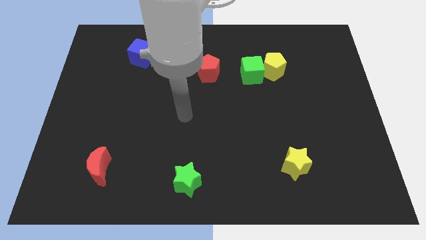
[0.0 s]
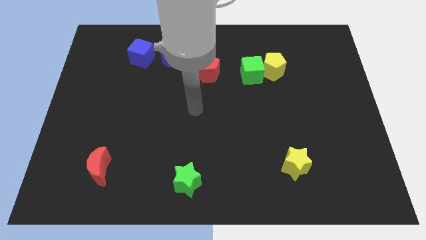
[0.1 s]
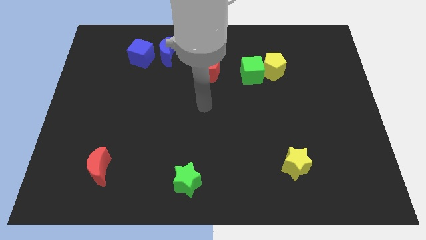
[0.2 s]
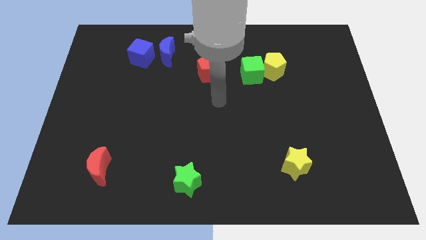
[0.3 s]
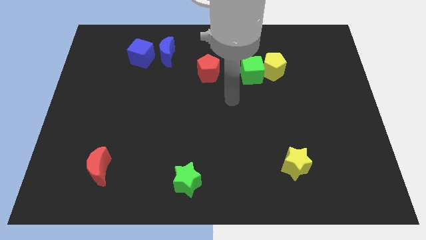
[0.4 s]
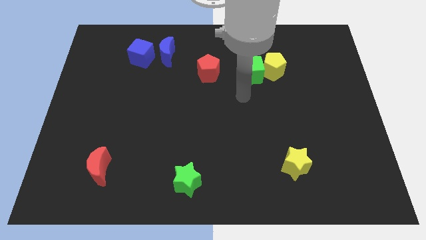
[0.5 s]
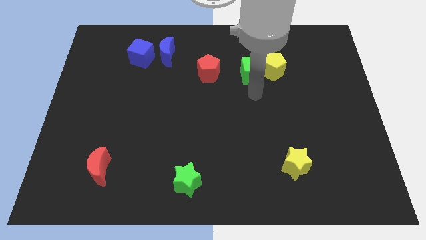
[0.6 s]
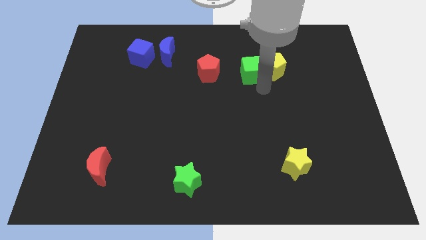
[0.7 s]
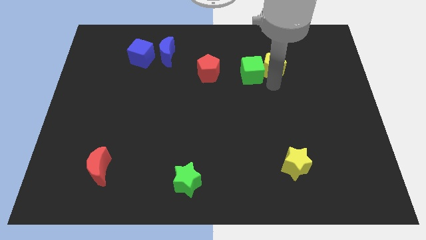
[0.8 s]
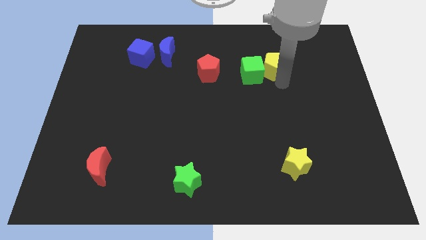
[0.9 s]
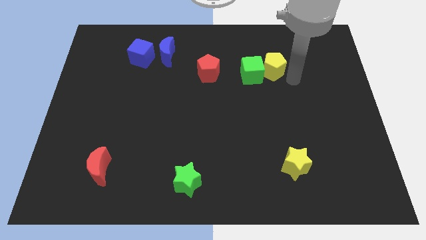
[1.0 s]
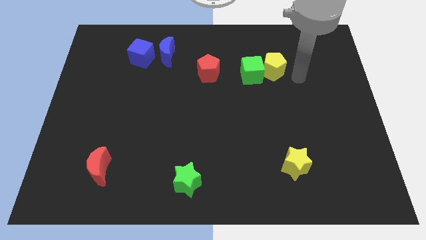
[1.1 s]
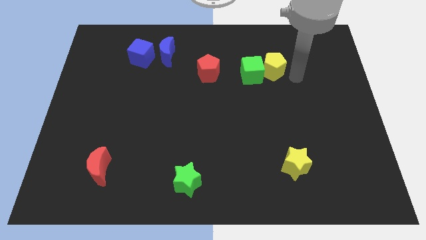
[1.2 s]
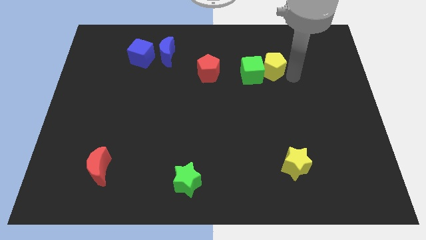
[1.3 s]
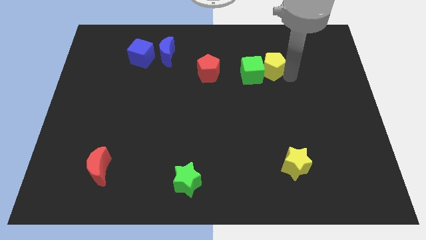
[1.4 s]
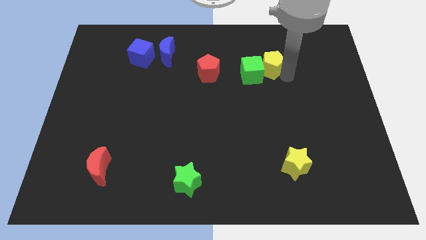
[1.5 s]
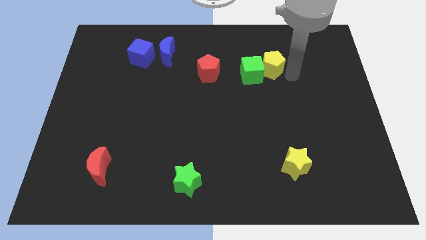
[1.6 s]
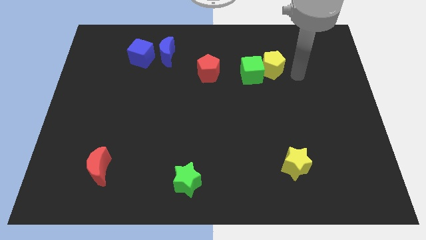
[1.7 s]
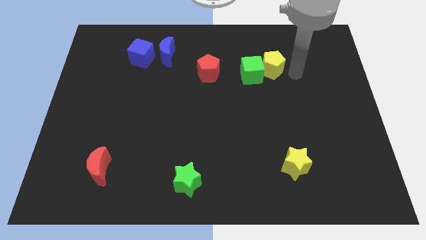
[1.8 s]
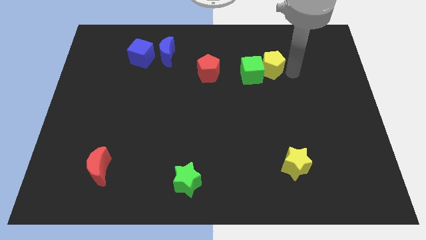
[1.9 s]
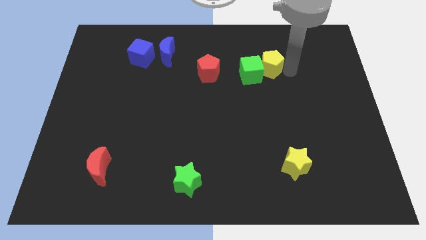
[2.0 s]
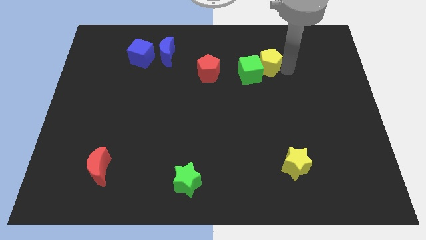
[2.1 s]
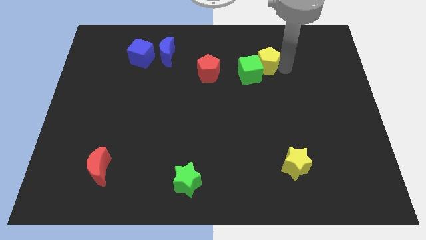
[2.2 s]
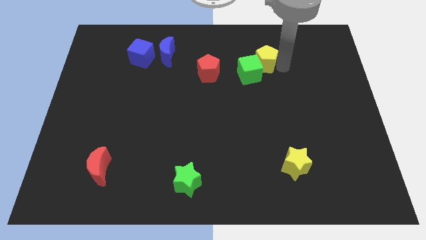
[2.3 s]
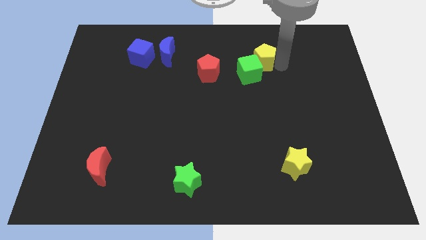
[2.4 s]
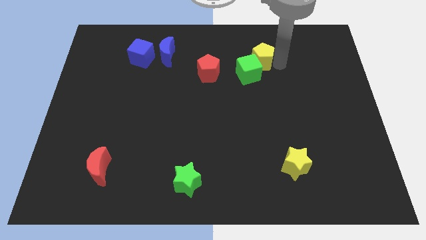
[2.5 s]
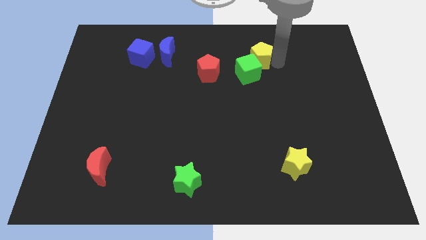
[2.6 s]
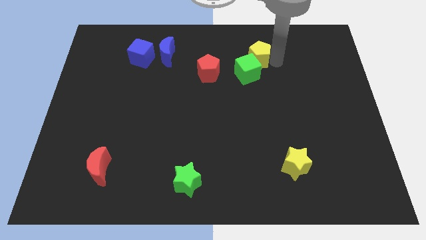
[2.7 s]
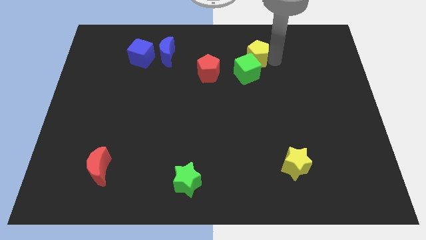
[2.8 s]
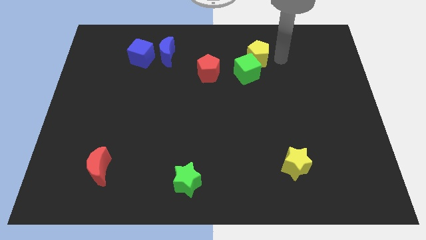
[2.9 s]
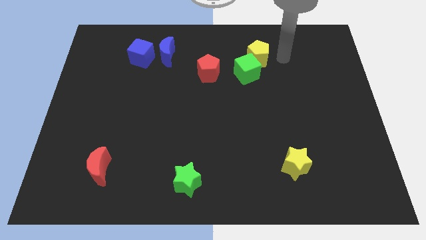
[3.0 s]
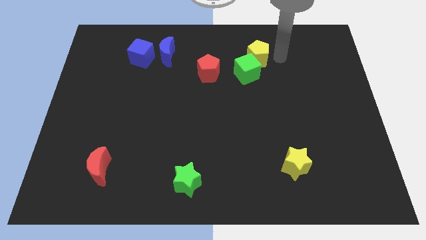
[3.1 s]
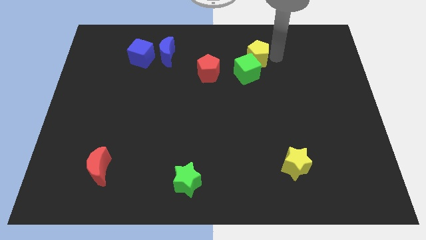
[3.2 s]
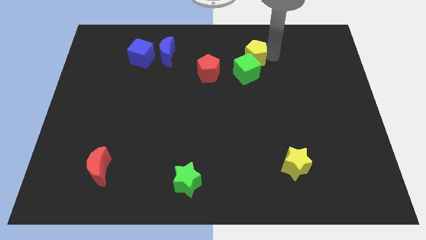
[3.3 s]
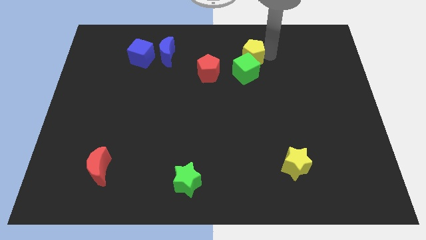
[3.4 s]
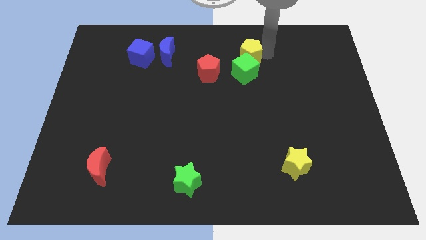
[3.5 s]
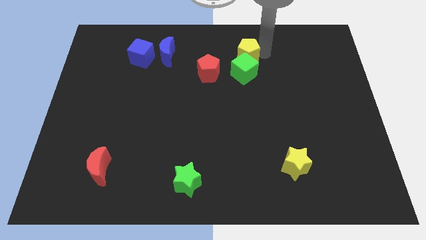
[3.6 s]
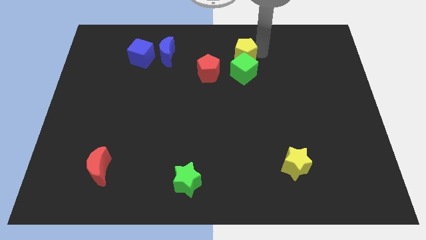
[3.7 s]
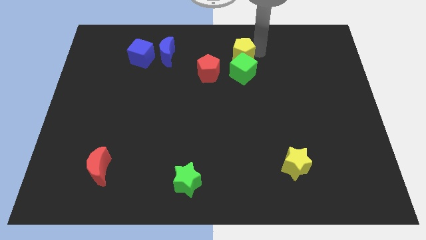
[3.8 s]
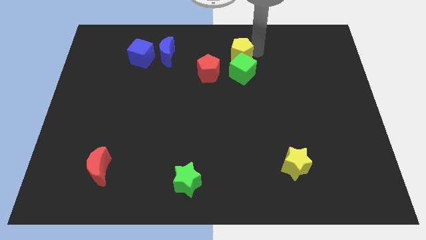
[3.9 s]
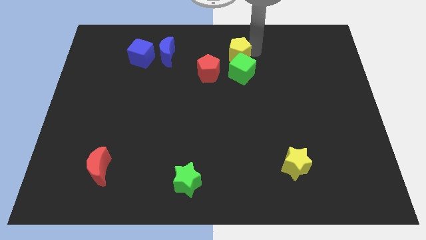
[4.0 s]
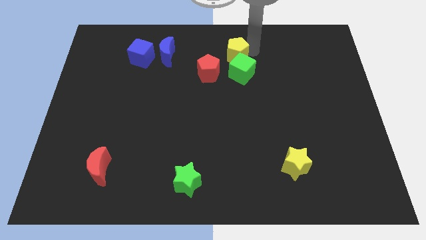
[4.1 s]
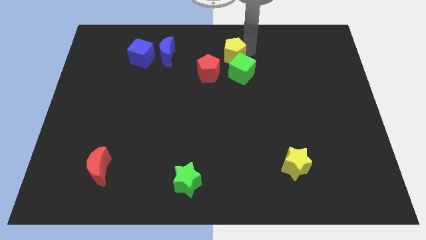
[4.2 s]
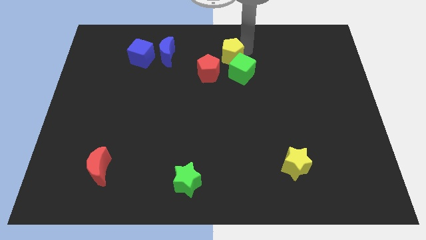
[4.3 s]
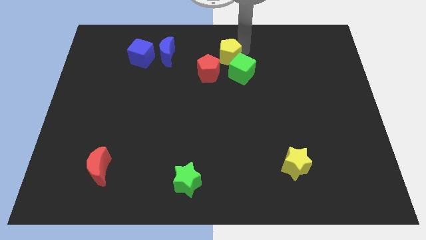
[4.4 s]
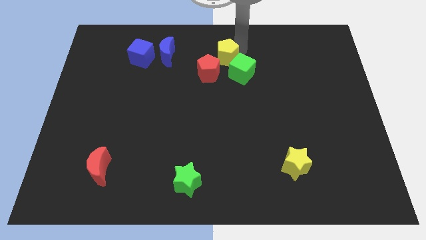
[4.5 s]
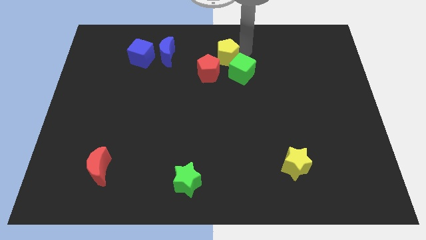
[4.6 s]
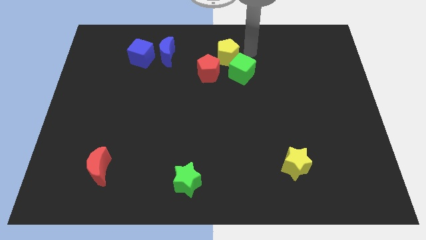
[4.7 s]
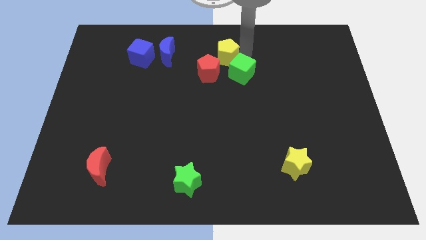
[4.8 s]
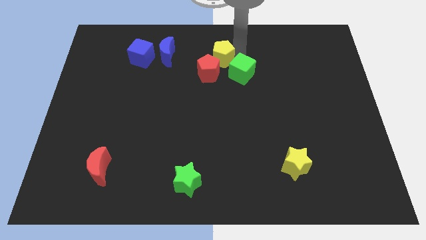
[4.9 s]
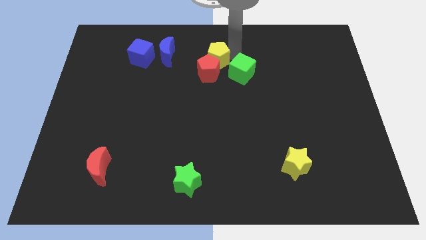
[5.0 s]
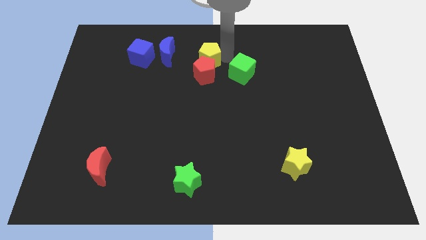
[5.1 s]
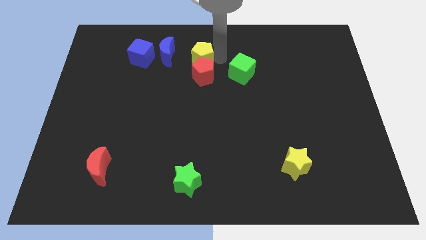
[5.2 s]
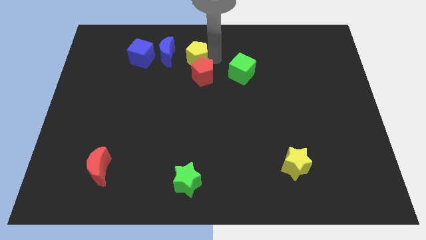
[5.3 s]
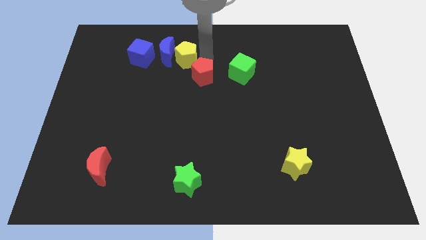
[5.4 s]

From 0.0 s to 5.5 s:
put the yellow pentagon next to the blue moon

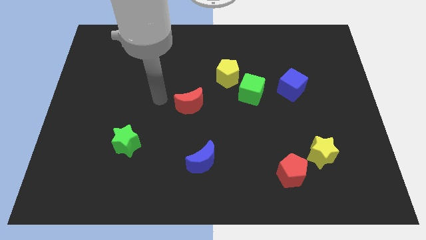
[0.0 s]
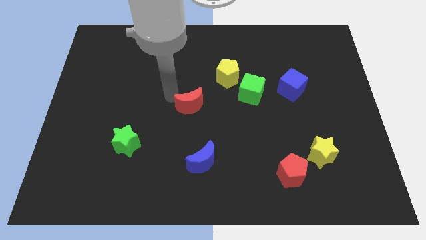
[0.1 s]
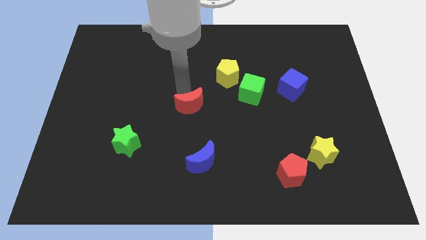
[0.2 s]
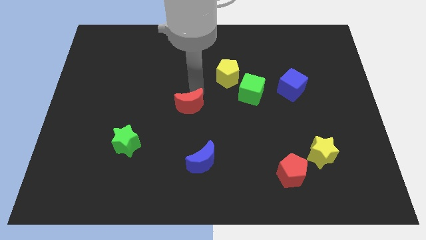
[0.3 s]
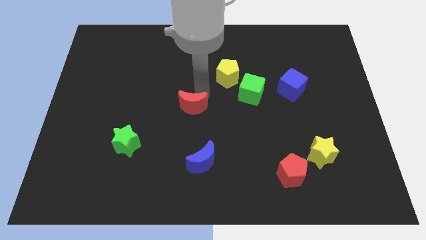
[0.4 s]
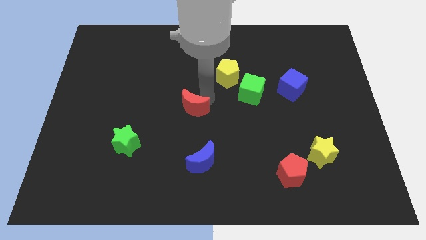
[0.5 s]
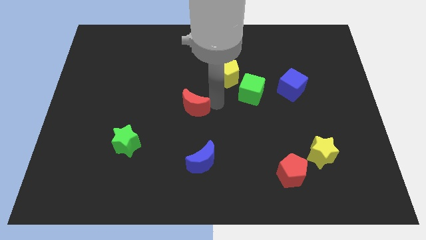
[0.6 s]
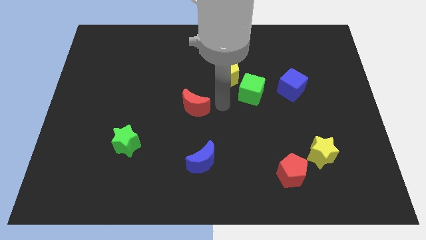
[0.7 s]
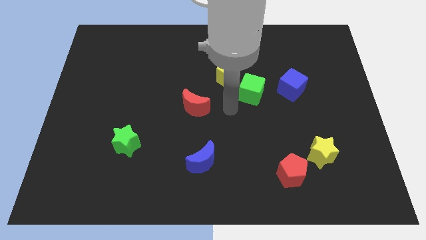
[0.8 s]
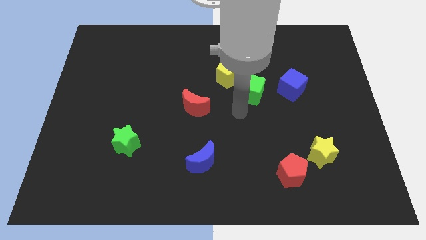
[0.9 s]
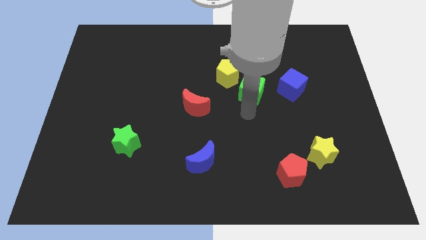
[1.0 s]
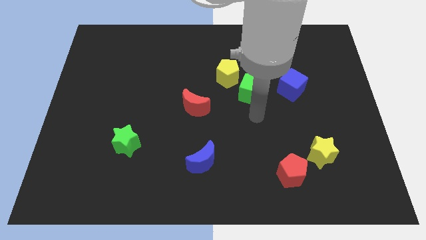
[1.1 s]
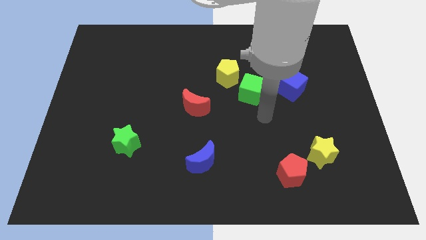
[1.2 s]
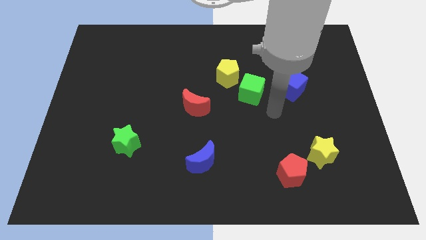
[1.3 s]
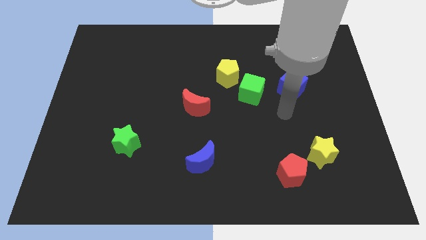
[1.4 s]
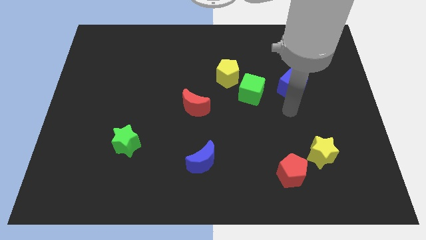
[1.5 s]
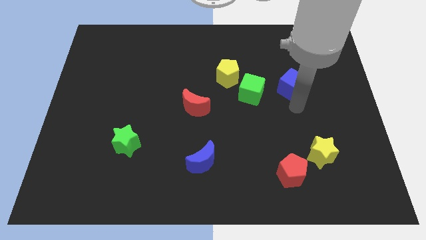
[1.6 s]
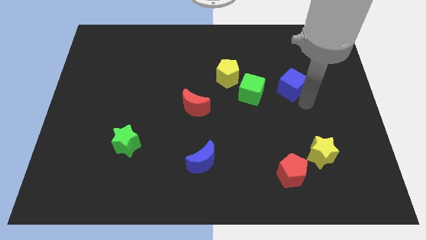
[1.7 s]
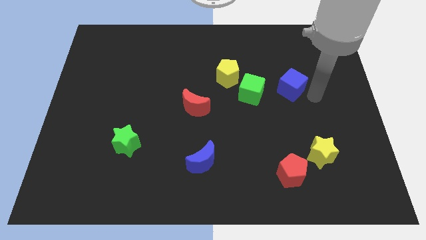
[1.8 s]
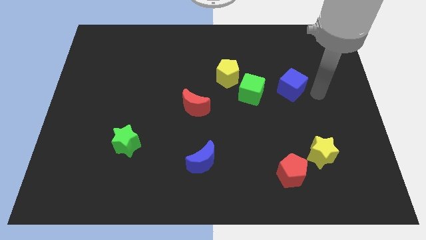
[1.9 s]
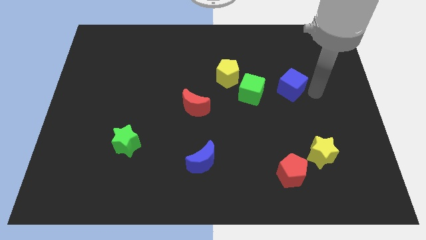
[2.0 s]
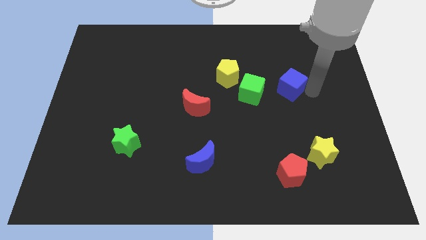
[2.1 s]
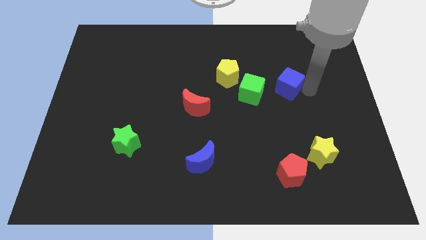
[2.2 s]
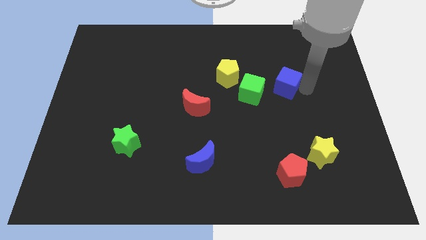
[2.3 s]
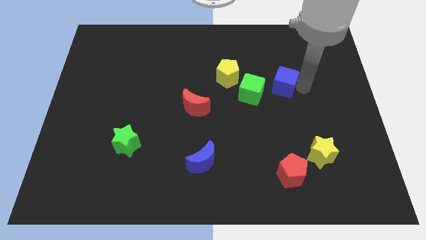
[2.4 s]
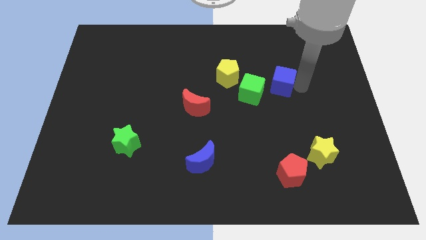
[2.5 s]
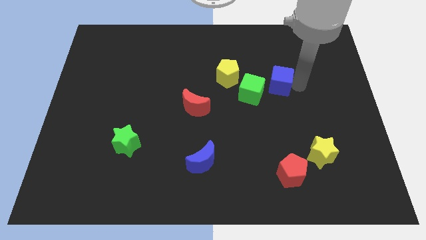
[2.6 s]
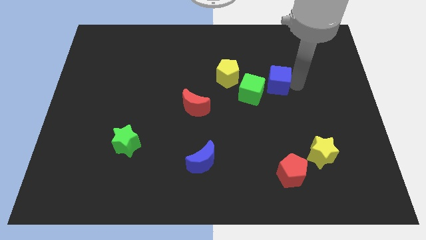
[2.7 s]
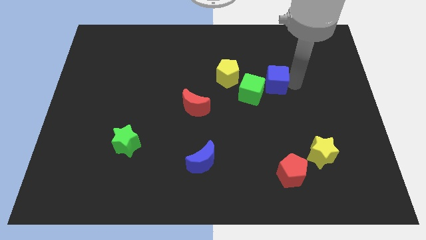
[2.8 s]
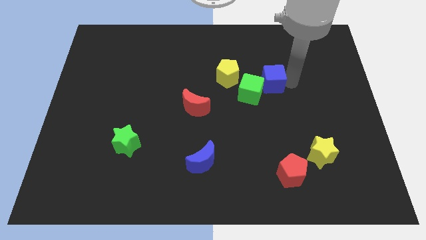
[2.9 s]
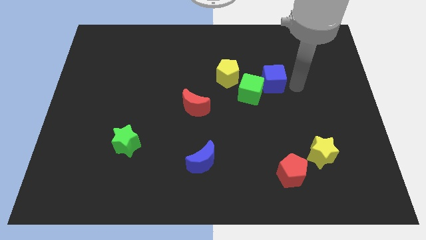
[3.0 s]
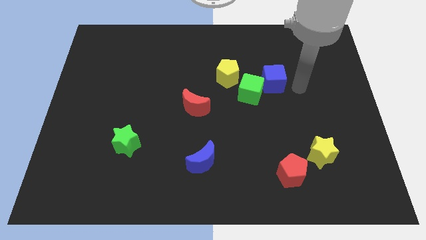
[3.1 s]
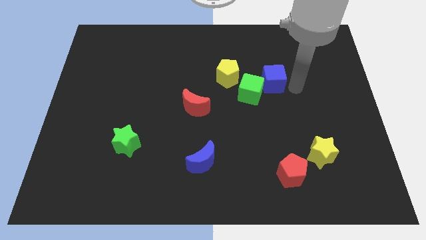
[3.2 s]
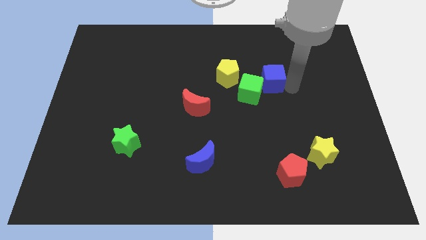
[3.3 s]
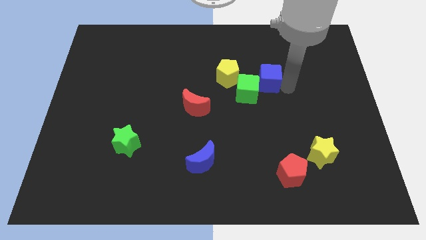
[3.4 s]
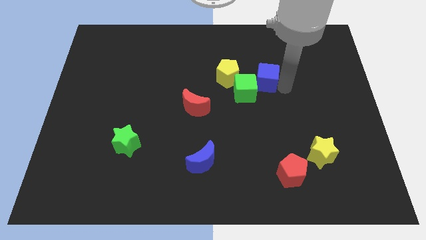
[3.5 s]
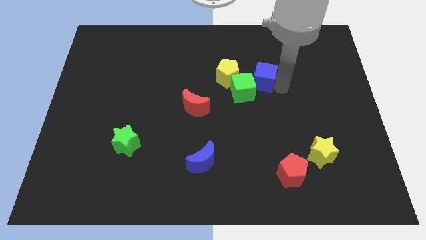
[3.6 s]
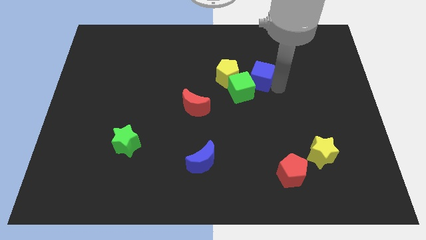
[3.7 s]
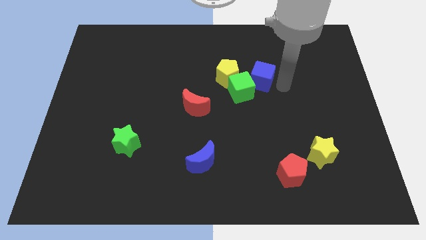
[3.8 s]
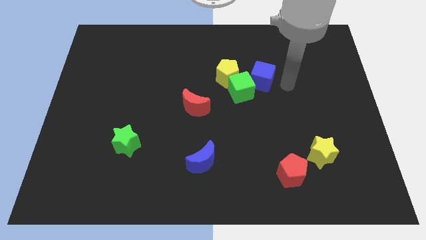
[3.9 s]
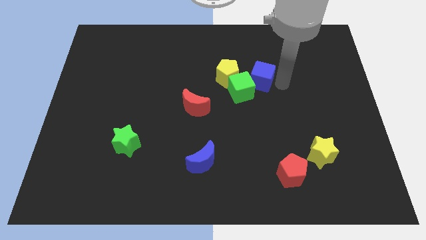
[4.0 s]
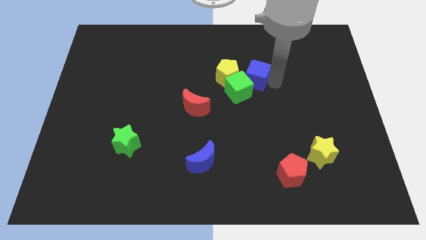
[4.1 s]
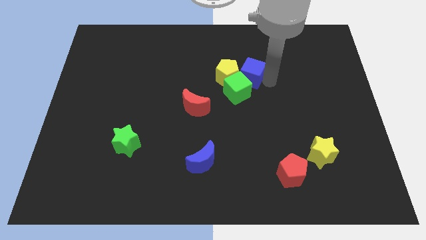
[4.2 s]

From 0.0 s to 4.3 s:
slide the blue cube to the yellow pentagon
